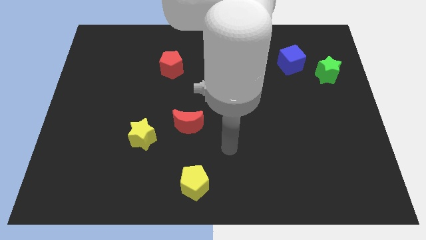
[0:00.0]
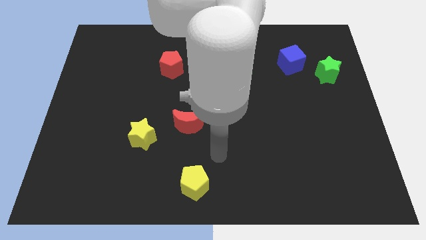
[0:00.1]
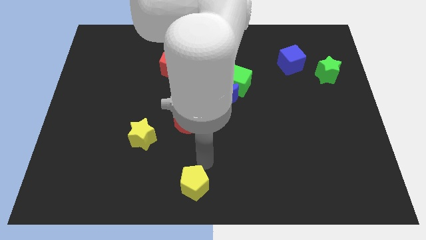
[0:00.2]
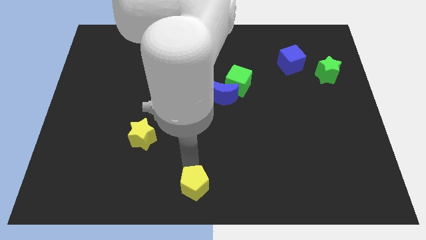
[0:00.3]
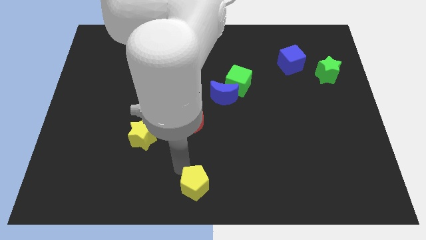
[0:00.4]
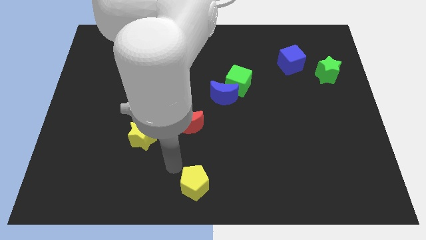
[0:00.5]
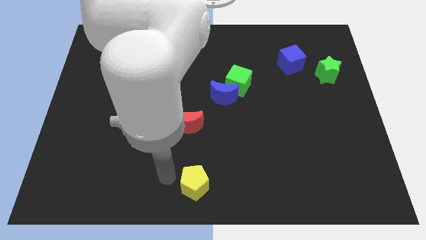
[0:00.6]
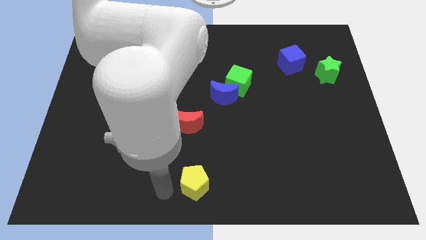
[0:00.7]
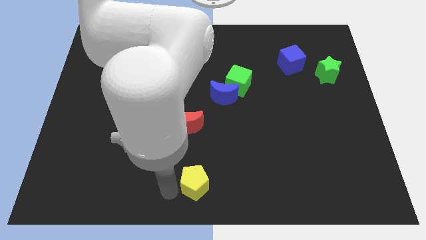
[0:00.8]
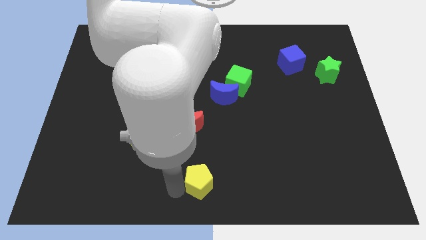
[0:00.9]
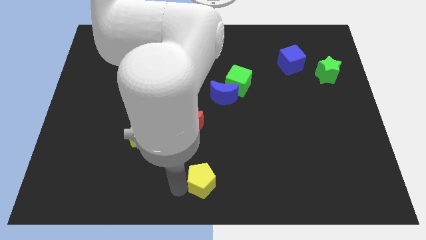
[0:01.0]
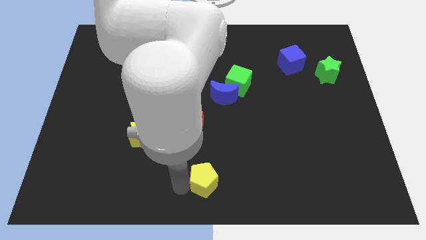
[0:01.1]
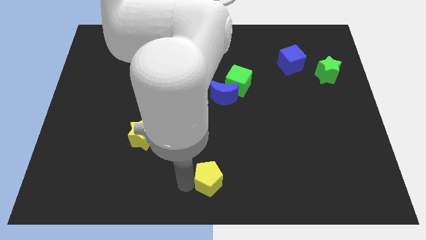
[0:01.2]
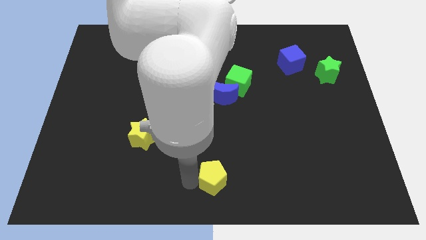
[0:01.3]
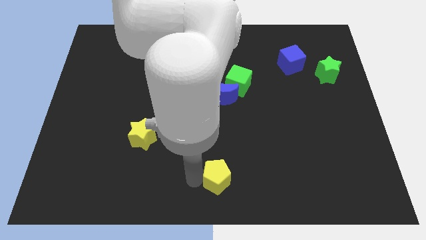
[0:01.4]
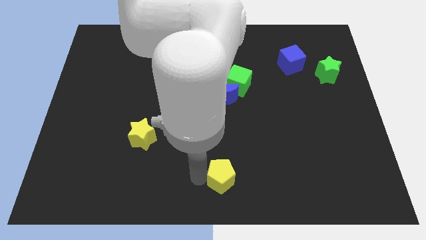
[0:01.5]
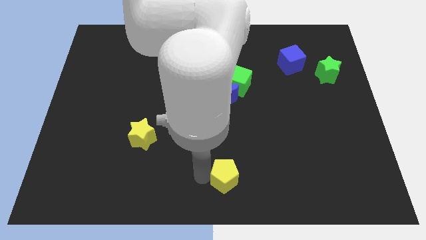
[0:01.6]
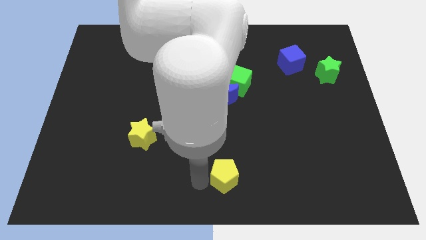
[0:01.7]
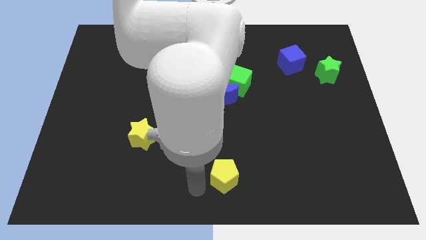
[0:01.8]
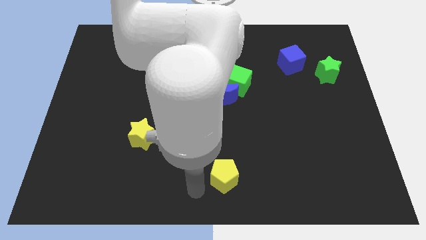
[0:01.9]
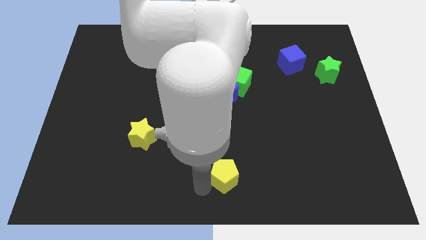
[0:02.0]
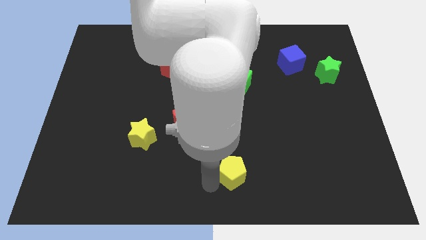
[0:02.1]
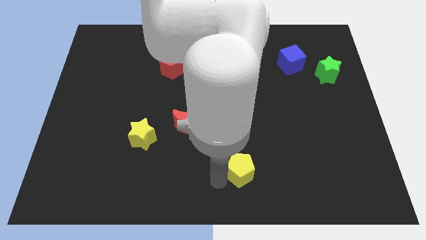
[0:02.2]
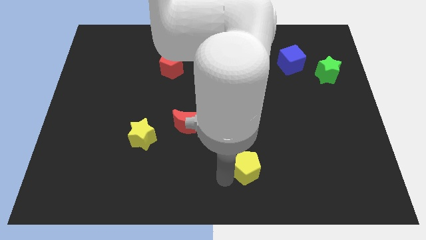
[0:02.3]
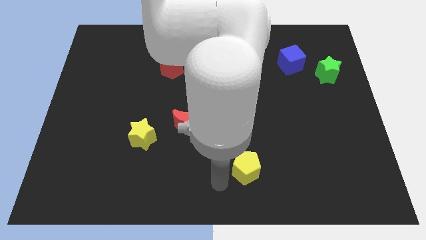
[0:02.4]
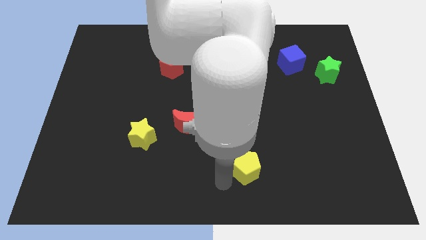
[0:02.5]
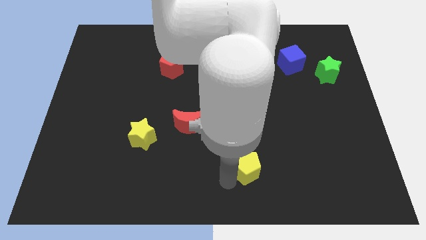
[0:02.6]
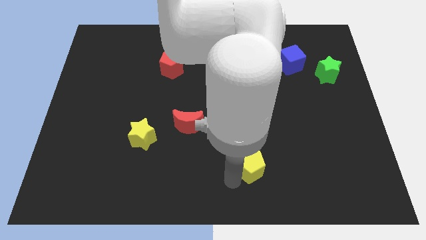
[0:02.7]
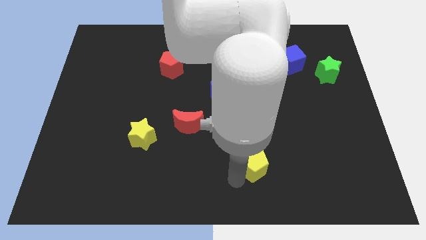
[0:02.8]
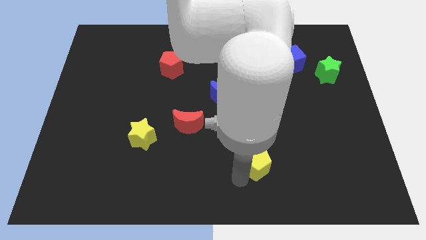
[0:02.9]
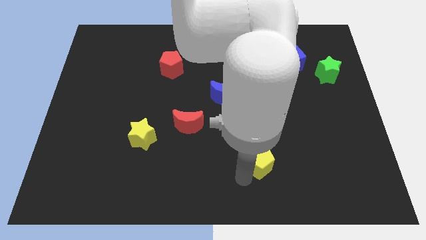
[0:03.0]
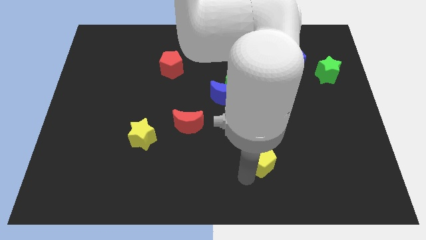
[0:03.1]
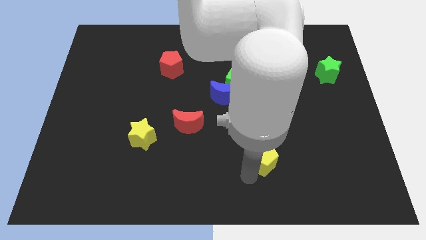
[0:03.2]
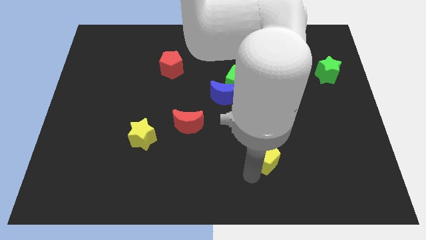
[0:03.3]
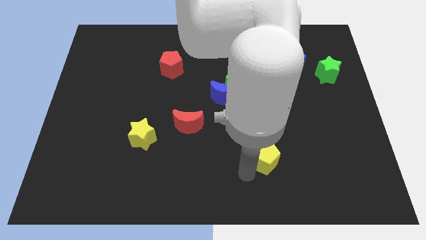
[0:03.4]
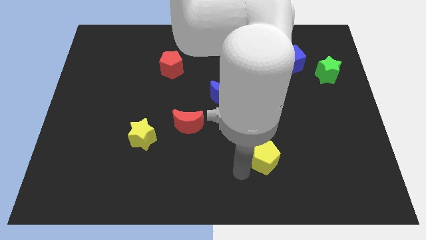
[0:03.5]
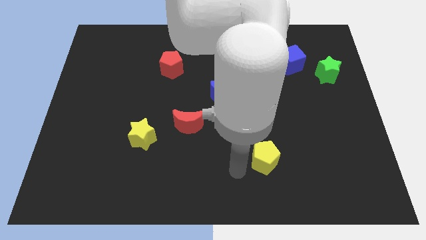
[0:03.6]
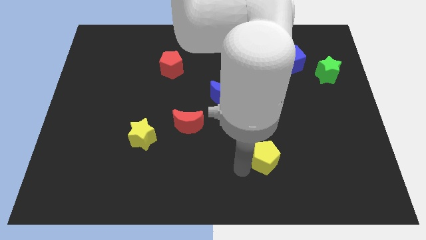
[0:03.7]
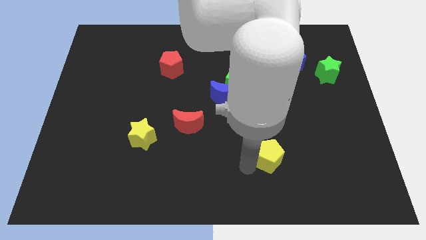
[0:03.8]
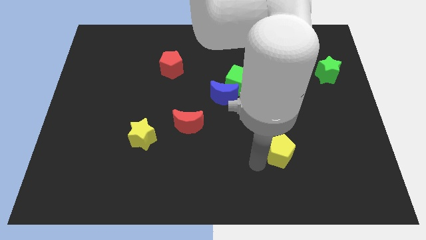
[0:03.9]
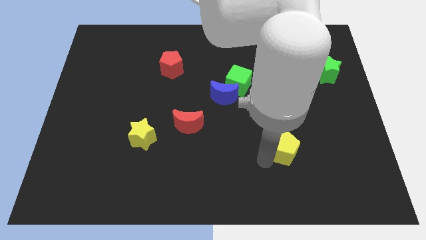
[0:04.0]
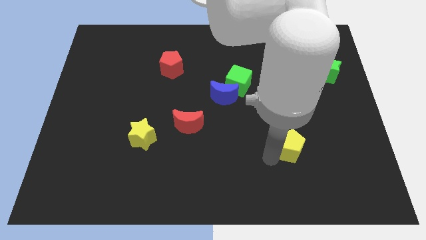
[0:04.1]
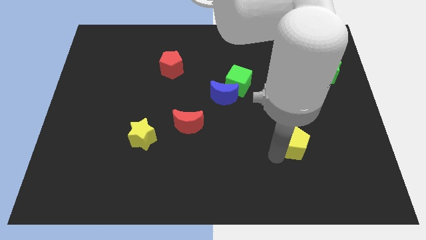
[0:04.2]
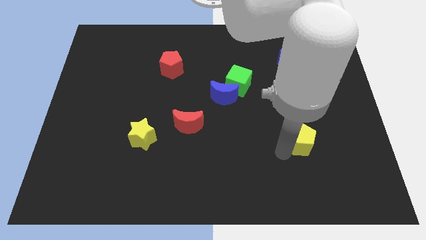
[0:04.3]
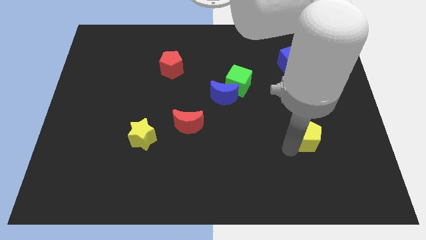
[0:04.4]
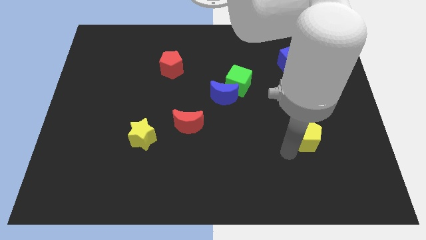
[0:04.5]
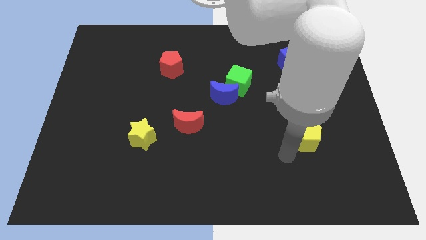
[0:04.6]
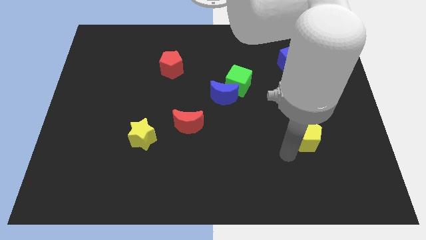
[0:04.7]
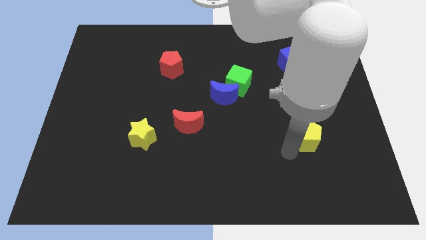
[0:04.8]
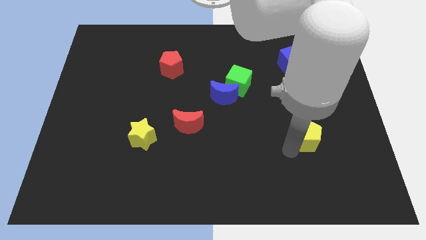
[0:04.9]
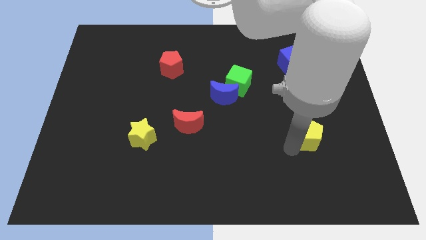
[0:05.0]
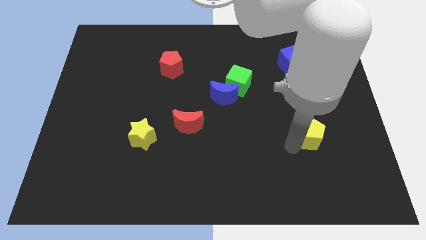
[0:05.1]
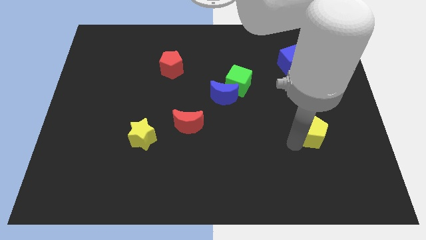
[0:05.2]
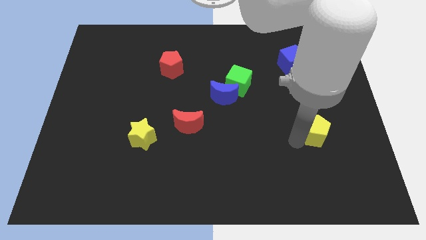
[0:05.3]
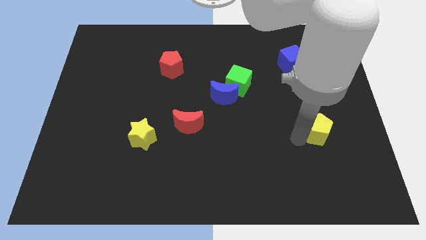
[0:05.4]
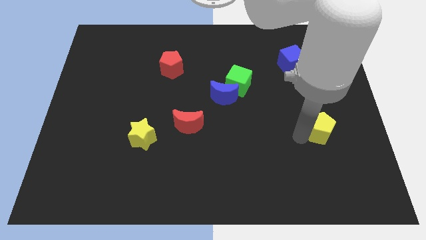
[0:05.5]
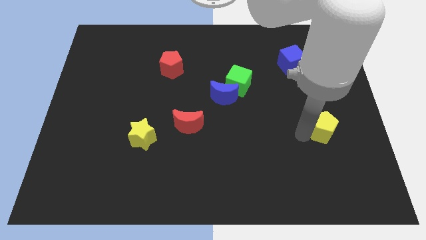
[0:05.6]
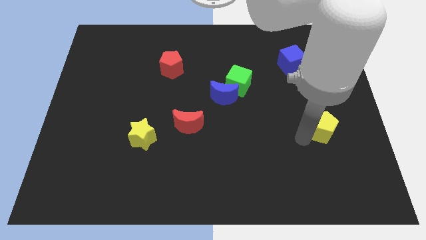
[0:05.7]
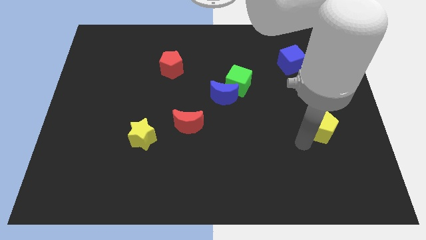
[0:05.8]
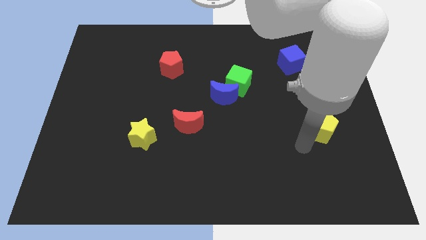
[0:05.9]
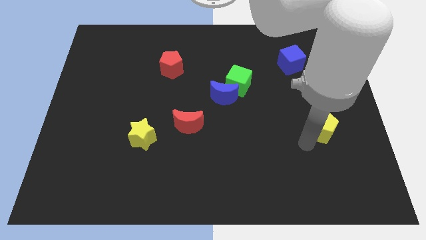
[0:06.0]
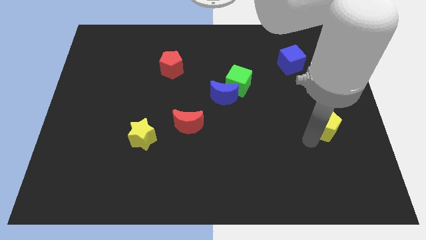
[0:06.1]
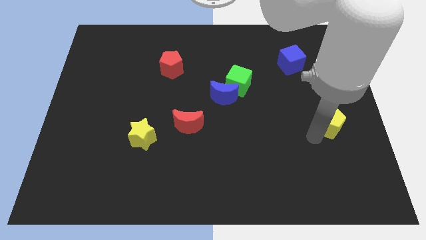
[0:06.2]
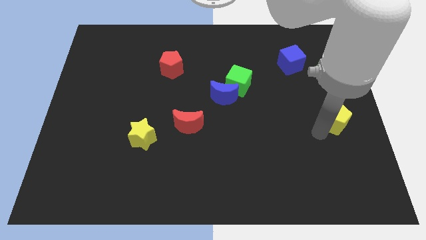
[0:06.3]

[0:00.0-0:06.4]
move the yellow pentagon to the right side of the board

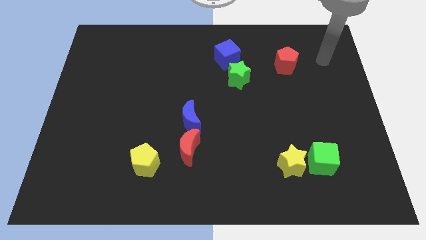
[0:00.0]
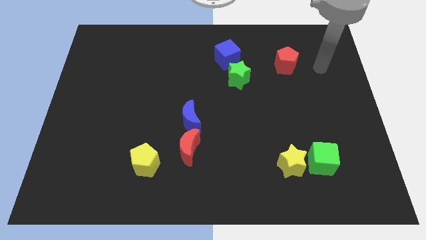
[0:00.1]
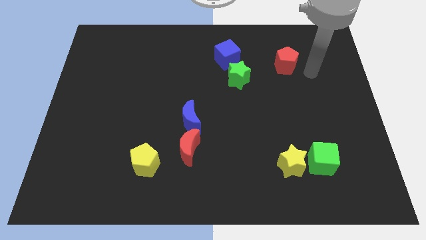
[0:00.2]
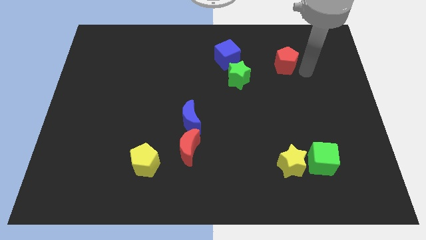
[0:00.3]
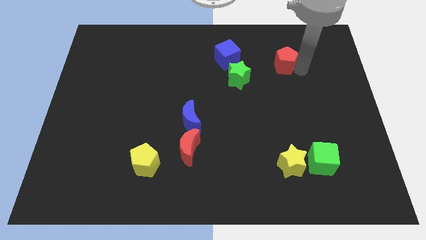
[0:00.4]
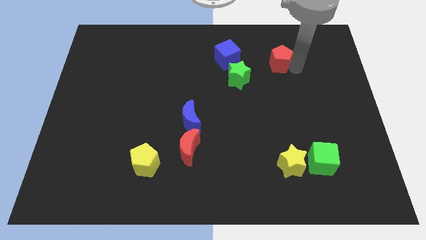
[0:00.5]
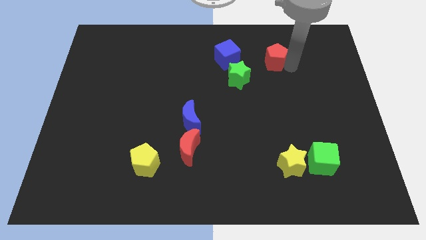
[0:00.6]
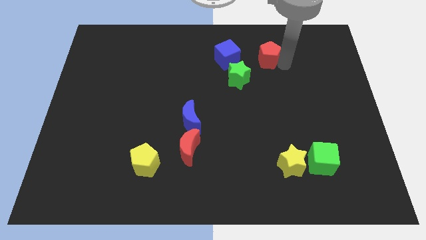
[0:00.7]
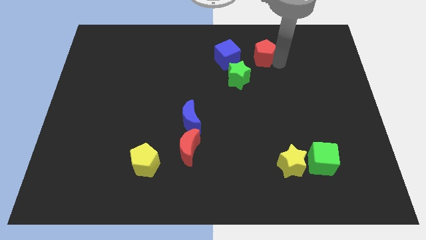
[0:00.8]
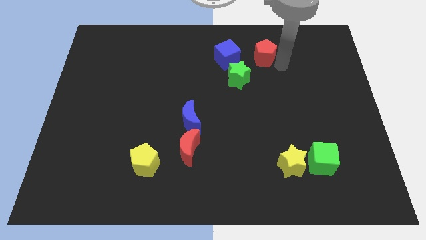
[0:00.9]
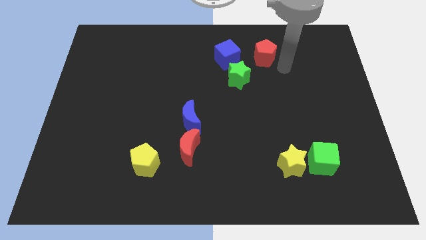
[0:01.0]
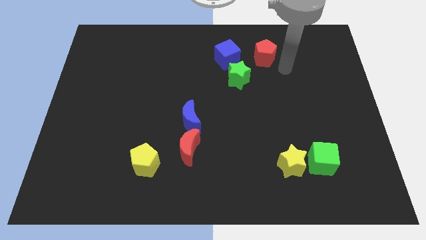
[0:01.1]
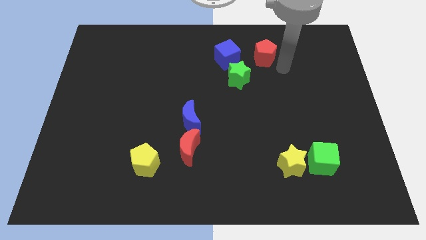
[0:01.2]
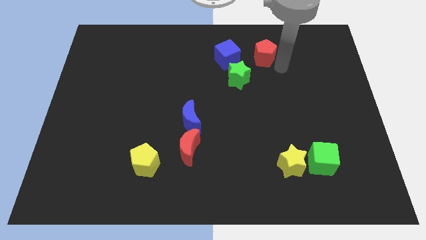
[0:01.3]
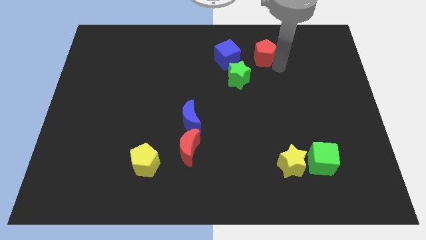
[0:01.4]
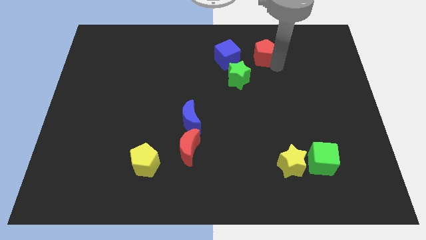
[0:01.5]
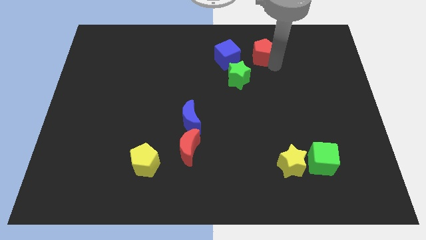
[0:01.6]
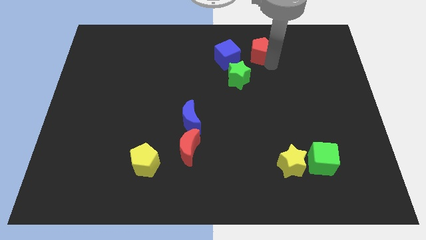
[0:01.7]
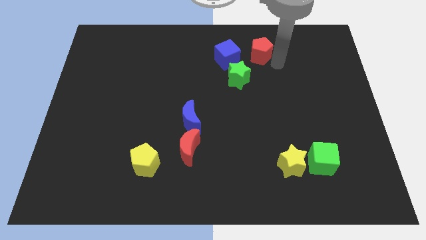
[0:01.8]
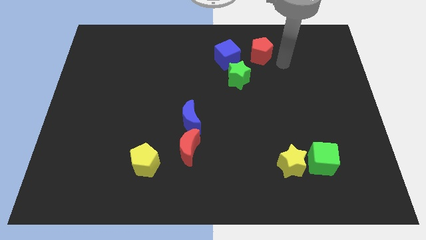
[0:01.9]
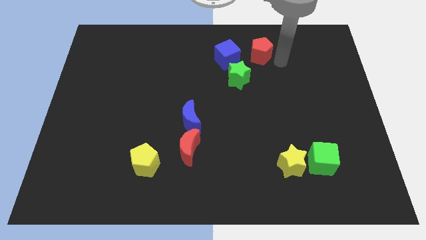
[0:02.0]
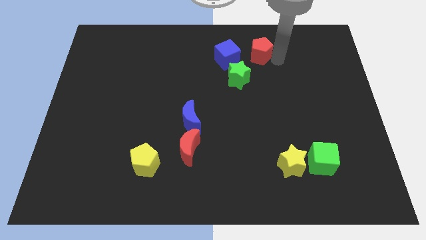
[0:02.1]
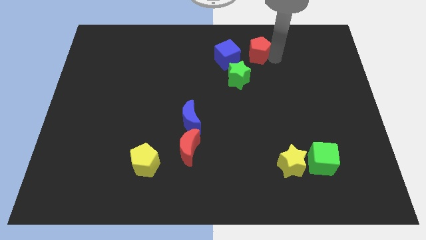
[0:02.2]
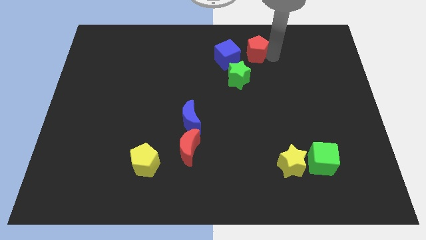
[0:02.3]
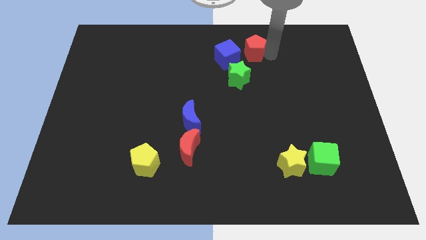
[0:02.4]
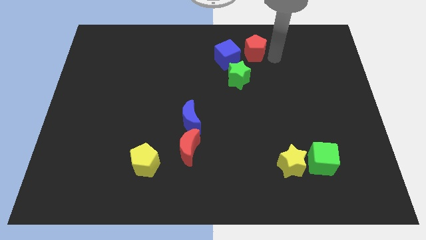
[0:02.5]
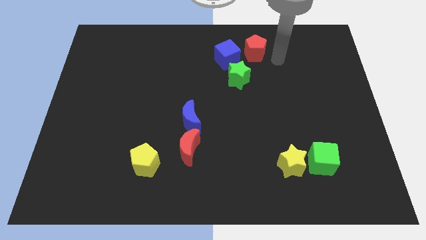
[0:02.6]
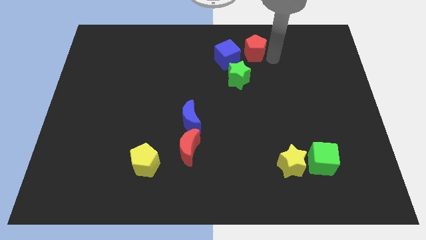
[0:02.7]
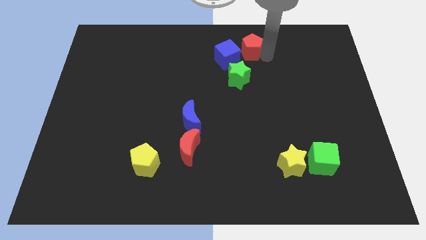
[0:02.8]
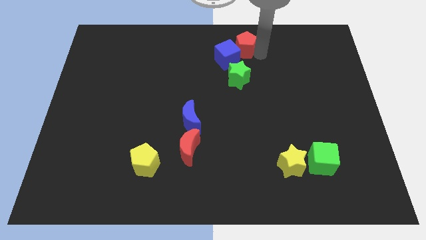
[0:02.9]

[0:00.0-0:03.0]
slide the red pentagon to the top
